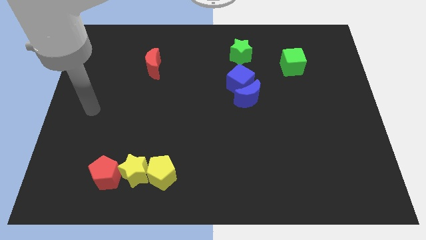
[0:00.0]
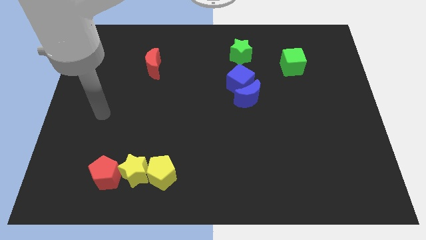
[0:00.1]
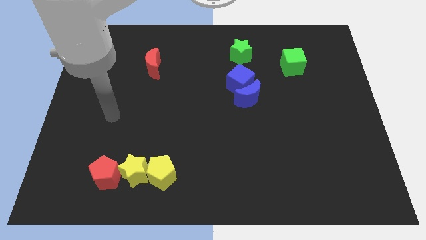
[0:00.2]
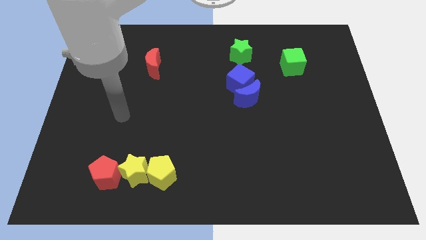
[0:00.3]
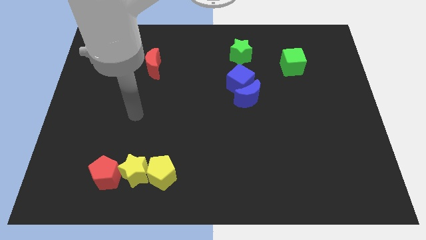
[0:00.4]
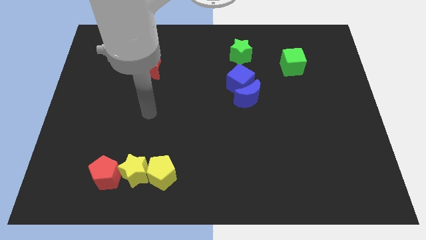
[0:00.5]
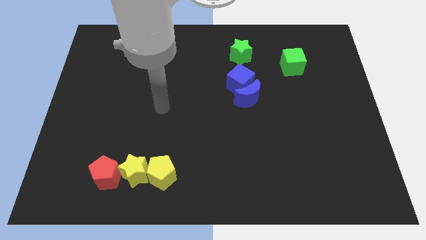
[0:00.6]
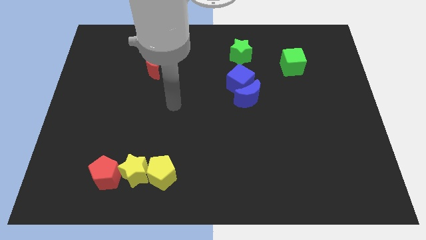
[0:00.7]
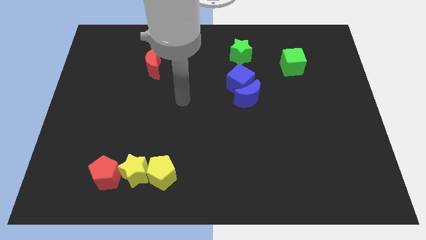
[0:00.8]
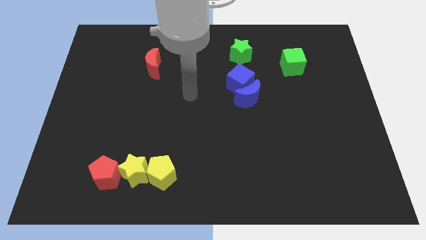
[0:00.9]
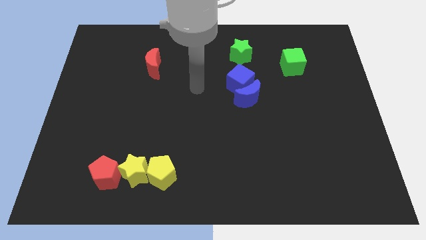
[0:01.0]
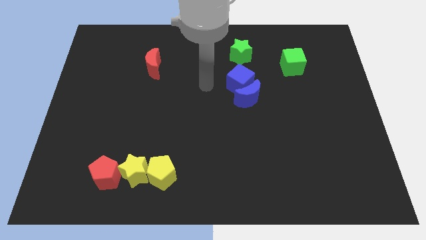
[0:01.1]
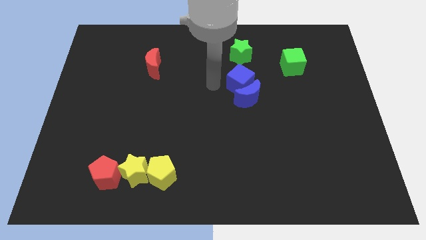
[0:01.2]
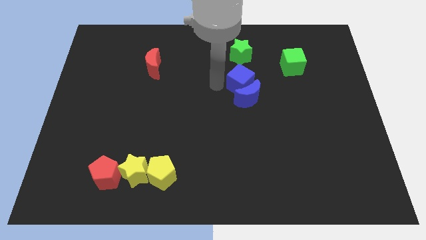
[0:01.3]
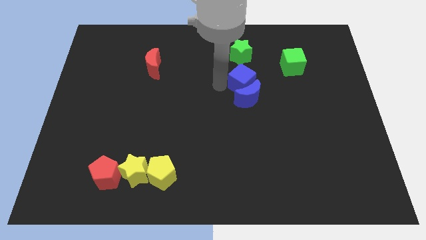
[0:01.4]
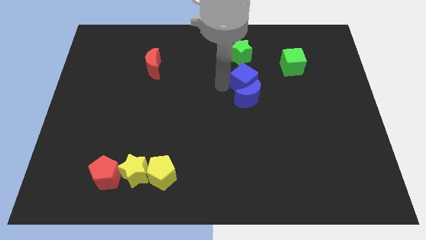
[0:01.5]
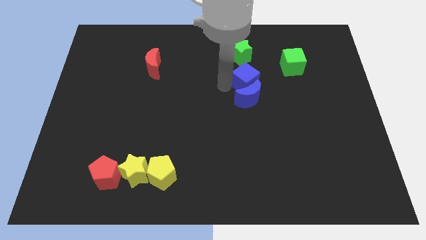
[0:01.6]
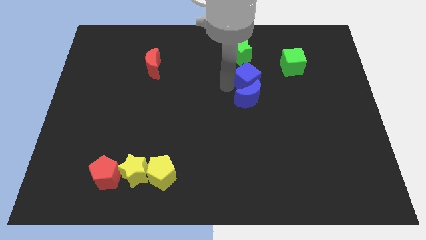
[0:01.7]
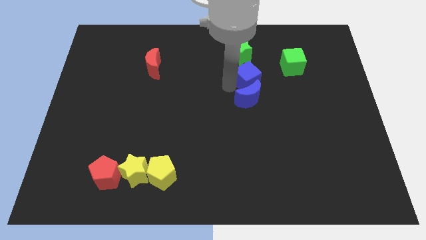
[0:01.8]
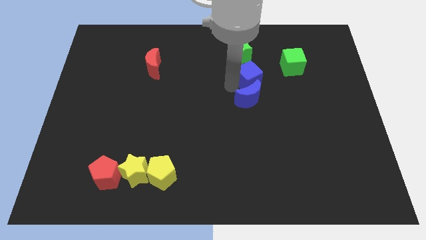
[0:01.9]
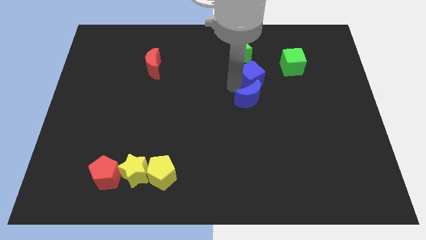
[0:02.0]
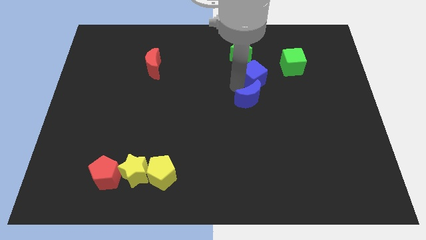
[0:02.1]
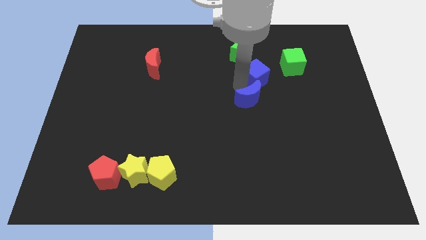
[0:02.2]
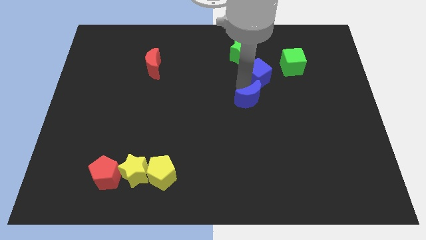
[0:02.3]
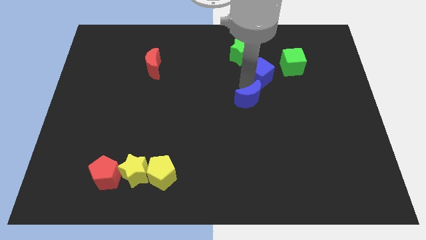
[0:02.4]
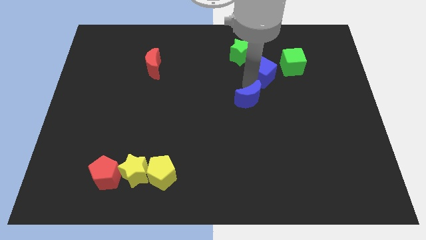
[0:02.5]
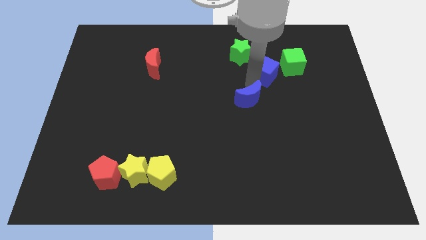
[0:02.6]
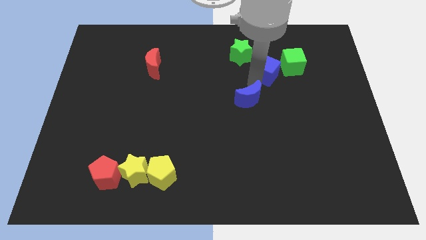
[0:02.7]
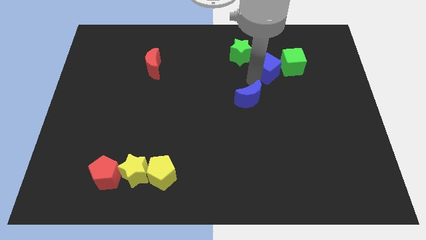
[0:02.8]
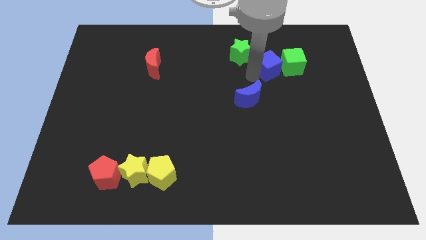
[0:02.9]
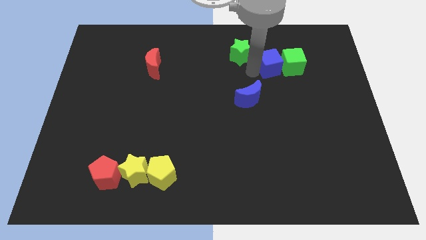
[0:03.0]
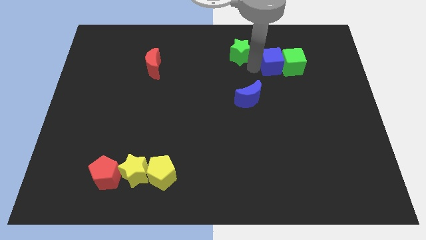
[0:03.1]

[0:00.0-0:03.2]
slightly slide the blue cube right

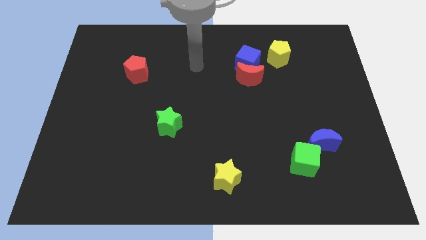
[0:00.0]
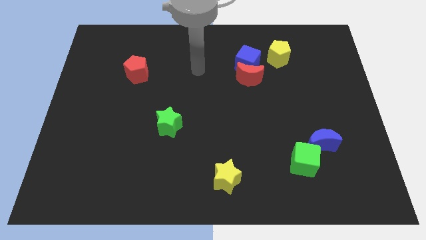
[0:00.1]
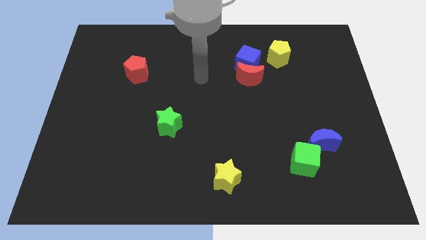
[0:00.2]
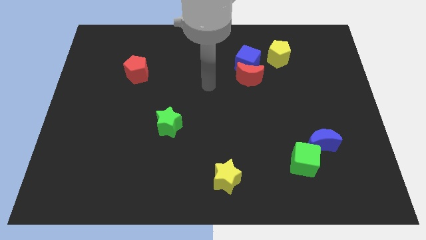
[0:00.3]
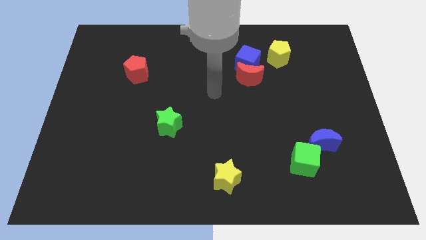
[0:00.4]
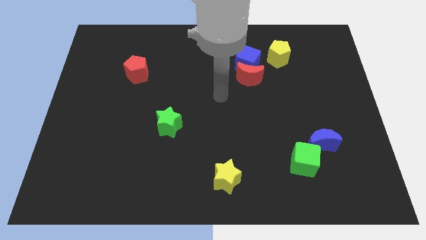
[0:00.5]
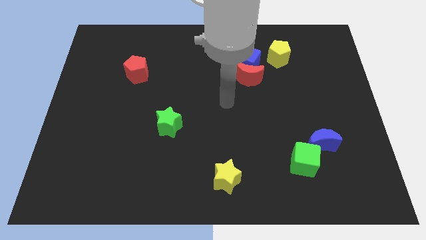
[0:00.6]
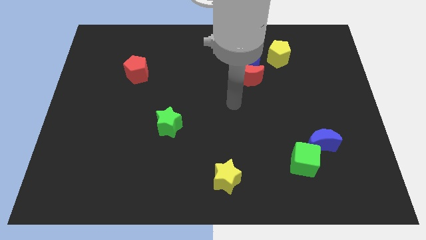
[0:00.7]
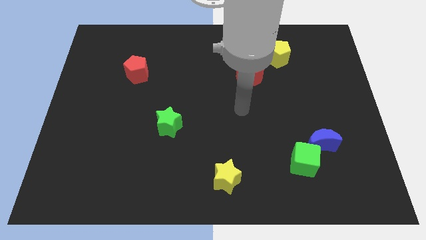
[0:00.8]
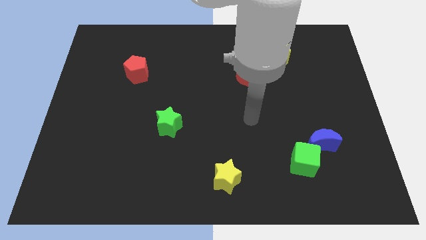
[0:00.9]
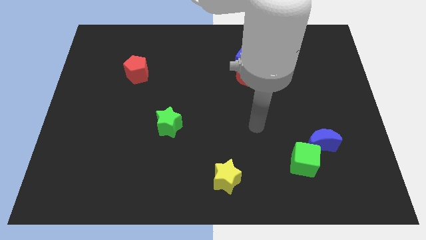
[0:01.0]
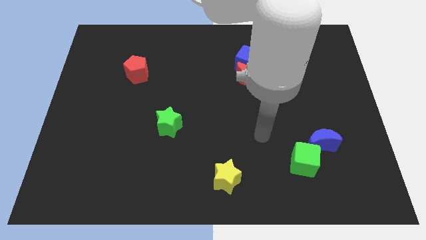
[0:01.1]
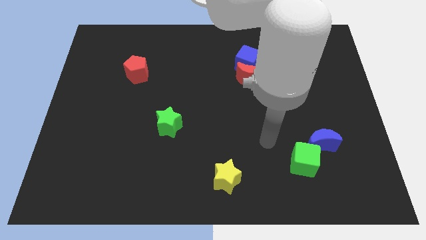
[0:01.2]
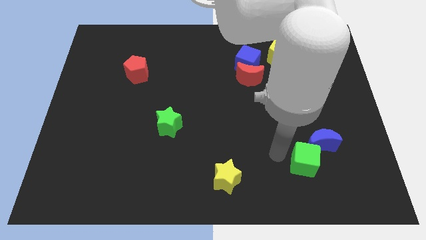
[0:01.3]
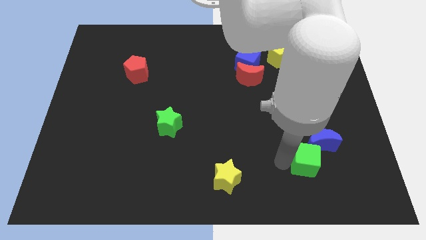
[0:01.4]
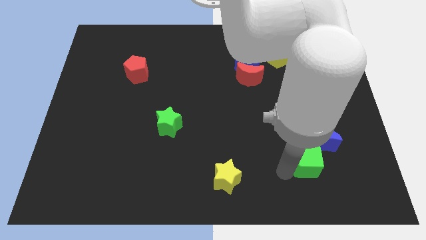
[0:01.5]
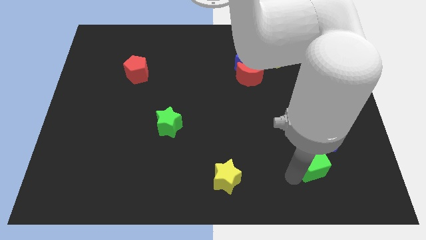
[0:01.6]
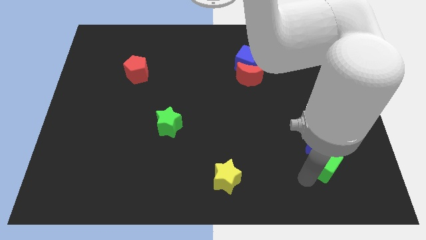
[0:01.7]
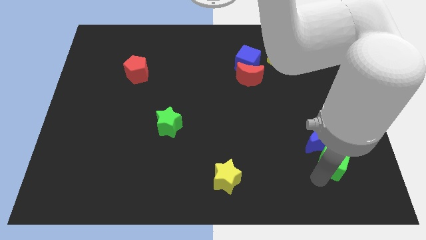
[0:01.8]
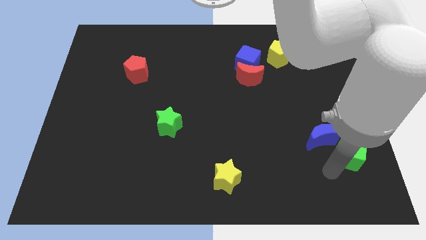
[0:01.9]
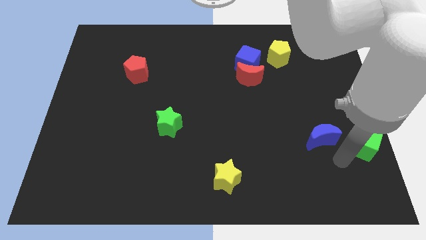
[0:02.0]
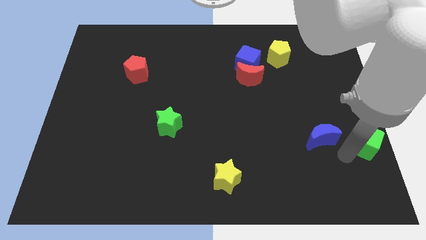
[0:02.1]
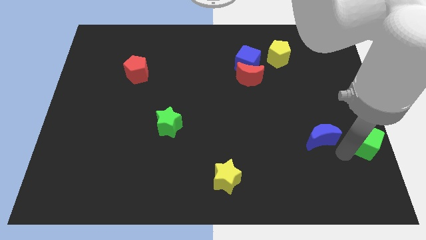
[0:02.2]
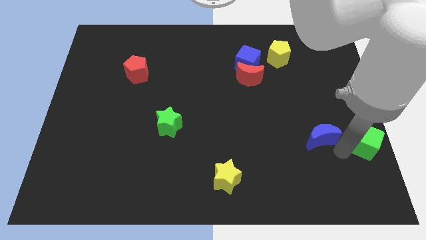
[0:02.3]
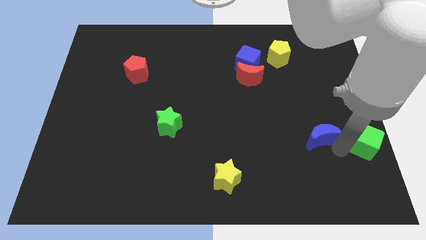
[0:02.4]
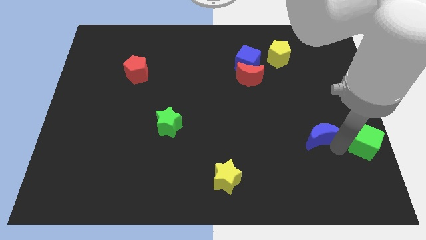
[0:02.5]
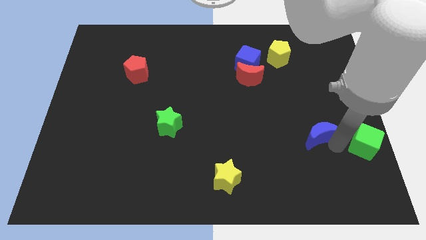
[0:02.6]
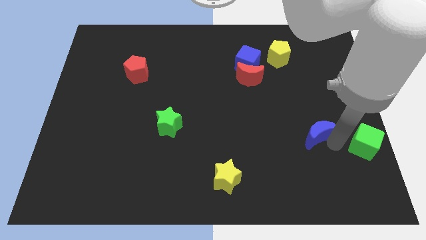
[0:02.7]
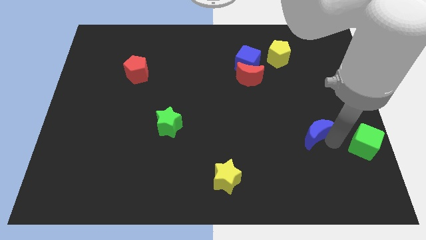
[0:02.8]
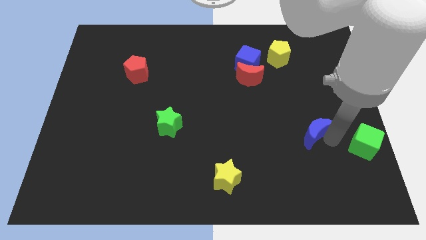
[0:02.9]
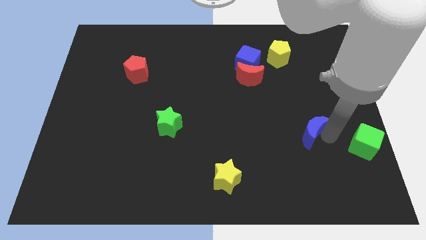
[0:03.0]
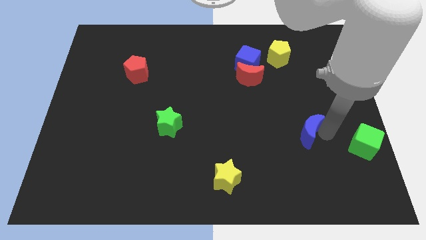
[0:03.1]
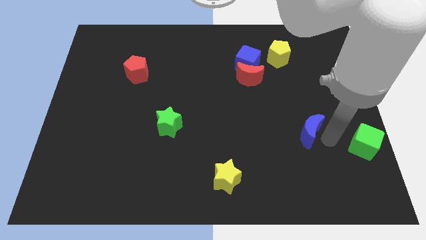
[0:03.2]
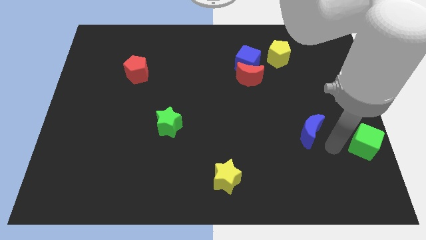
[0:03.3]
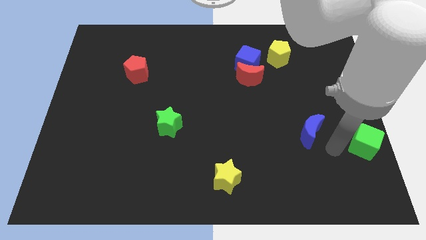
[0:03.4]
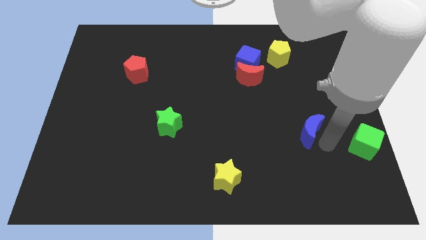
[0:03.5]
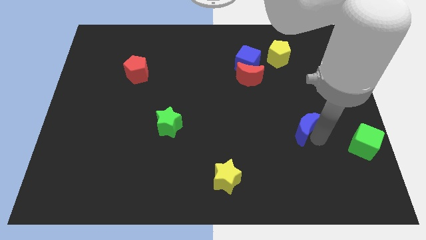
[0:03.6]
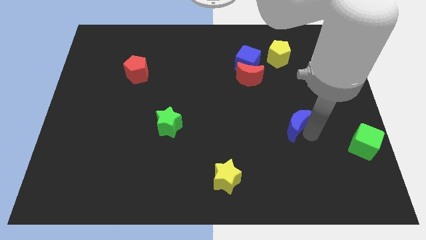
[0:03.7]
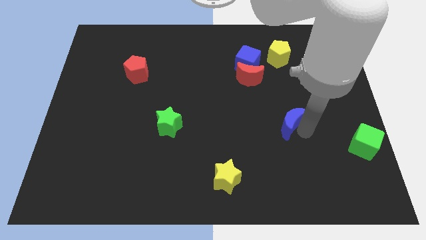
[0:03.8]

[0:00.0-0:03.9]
slightly push the blue moon up and to the left

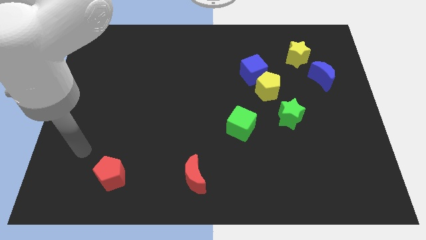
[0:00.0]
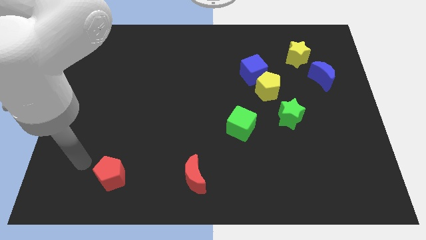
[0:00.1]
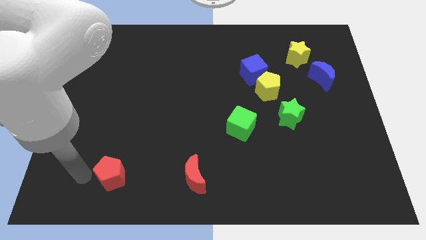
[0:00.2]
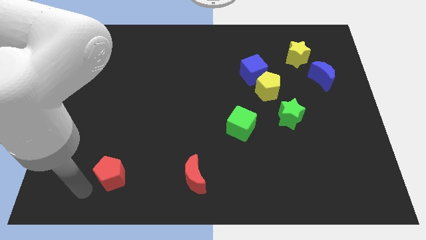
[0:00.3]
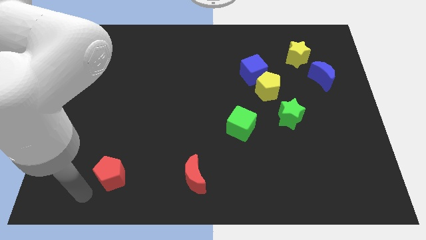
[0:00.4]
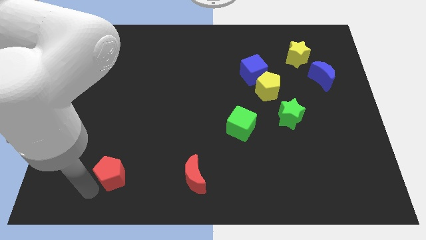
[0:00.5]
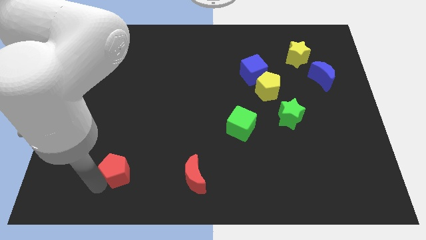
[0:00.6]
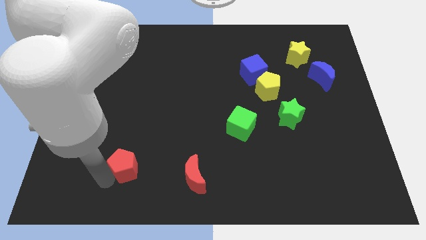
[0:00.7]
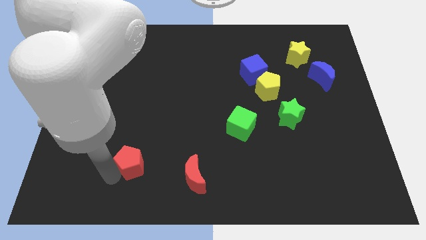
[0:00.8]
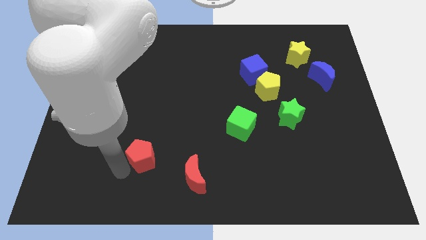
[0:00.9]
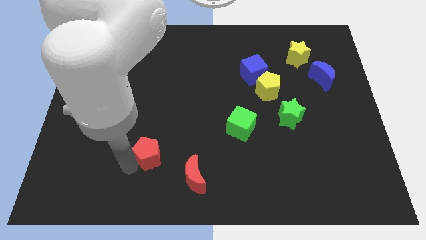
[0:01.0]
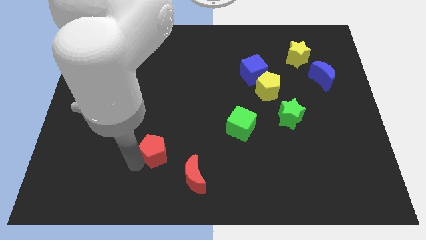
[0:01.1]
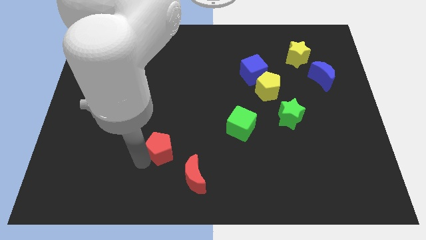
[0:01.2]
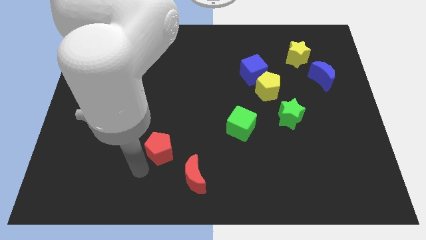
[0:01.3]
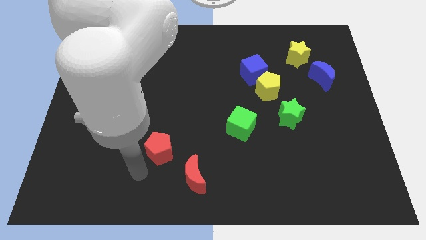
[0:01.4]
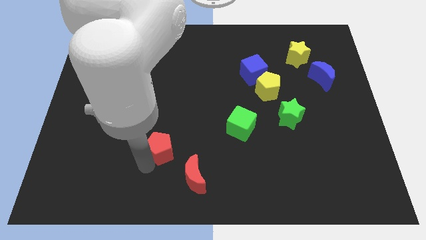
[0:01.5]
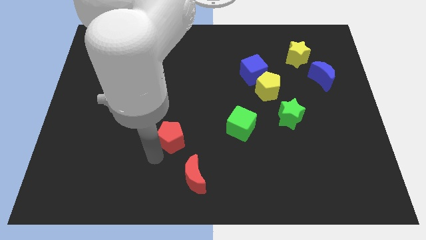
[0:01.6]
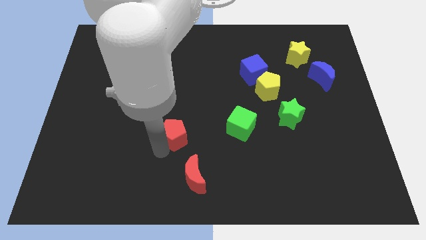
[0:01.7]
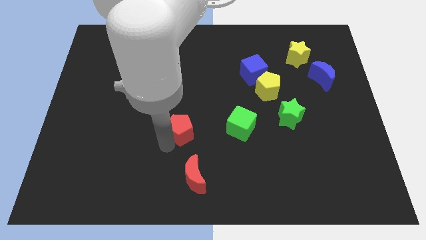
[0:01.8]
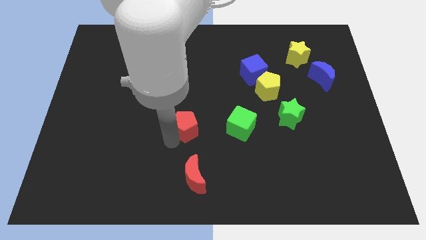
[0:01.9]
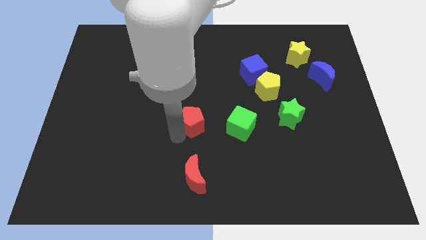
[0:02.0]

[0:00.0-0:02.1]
push the red pentagon upwards and right
